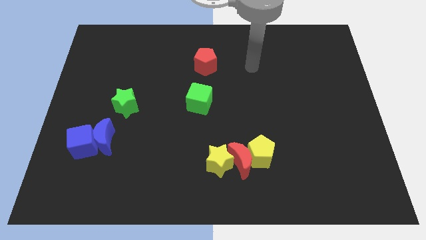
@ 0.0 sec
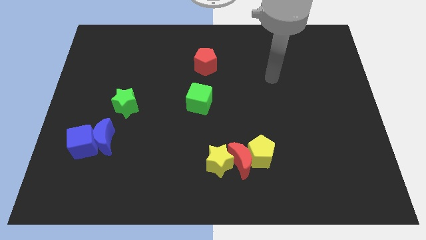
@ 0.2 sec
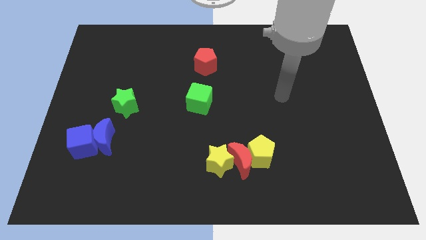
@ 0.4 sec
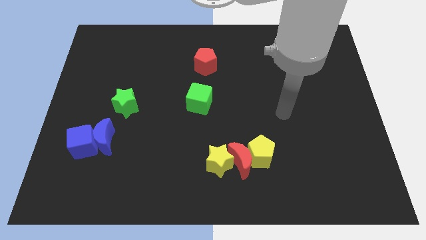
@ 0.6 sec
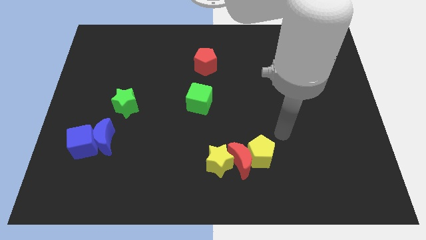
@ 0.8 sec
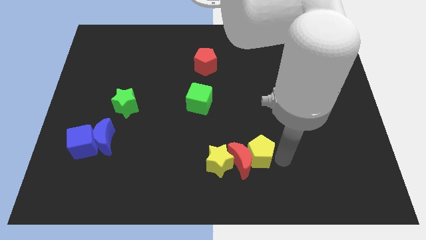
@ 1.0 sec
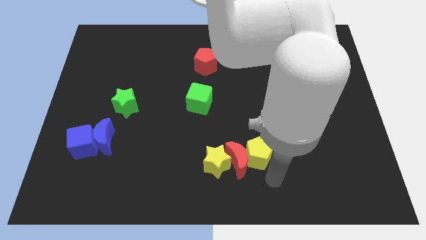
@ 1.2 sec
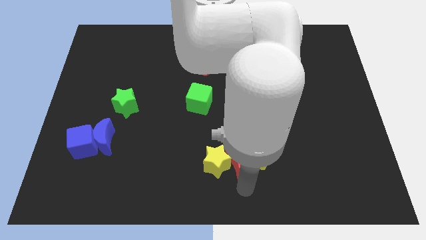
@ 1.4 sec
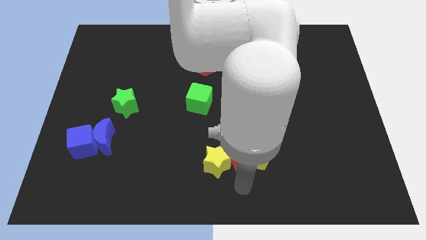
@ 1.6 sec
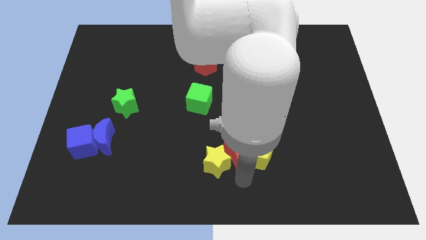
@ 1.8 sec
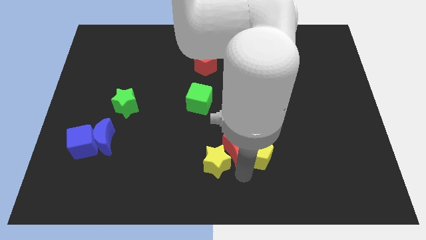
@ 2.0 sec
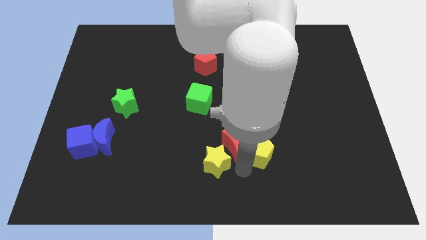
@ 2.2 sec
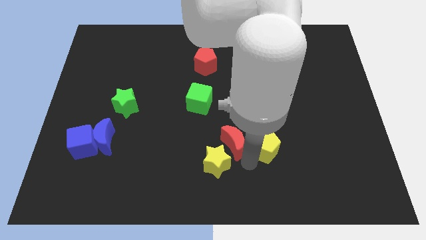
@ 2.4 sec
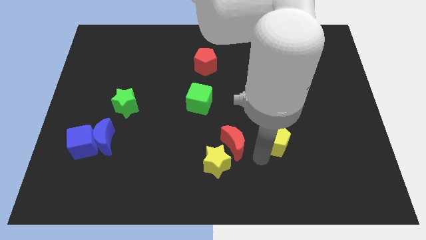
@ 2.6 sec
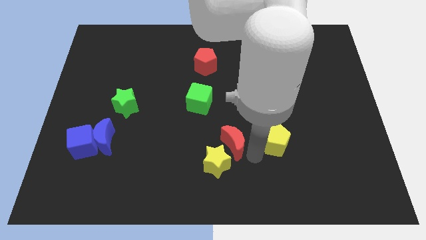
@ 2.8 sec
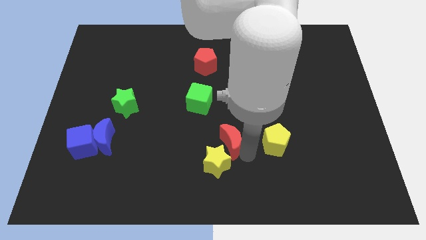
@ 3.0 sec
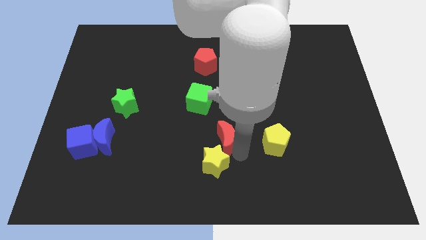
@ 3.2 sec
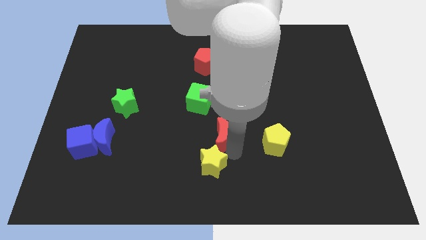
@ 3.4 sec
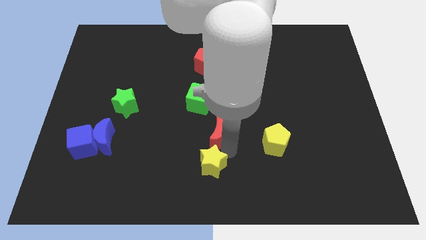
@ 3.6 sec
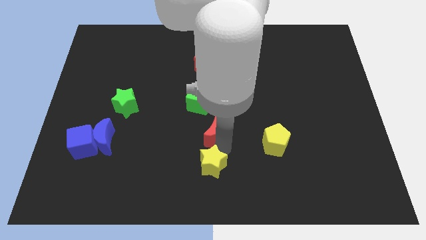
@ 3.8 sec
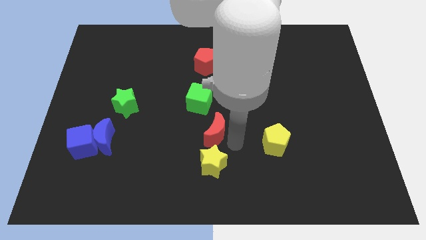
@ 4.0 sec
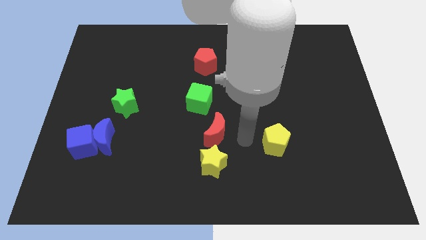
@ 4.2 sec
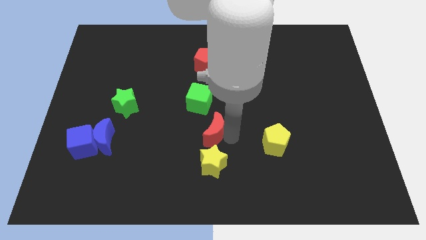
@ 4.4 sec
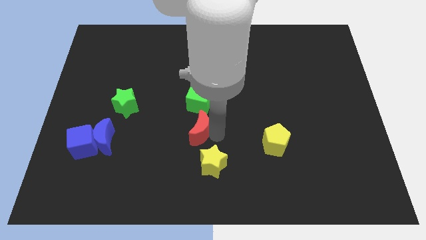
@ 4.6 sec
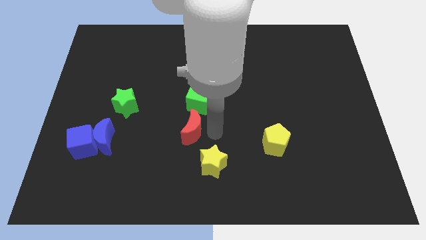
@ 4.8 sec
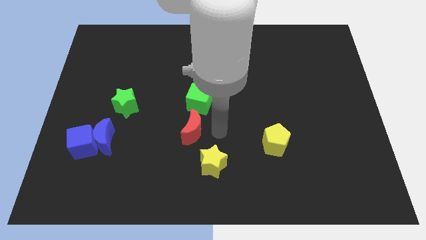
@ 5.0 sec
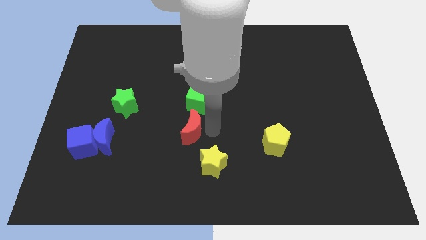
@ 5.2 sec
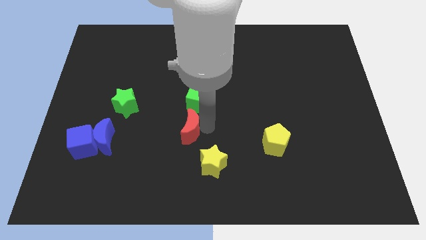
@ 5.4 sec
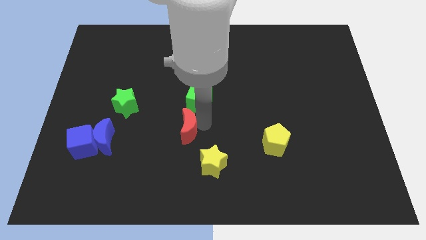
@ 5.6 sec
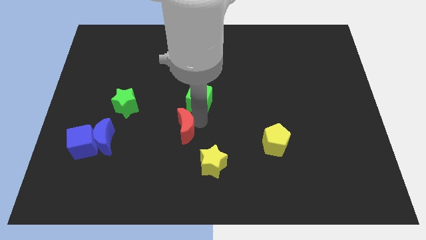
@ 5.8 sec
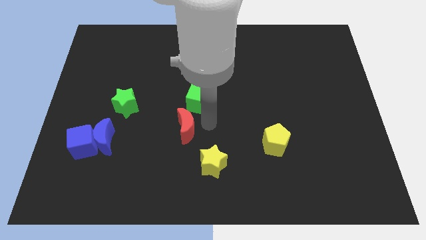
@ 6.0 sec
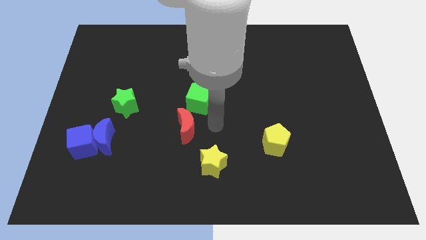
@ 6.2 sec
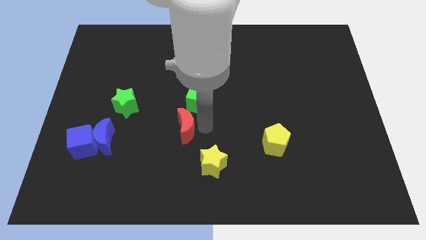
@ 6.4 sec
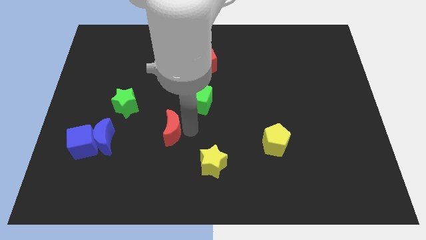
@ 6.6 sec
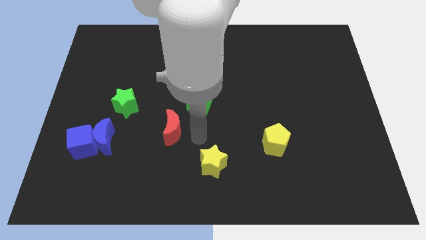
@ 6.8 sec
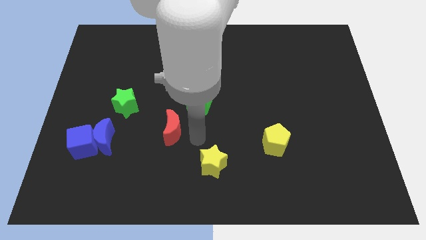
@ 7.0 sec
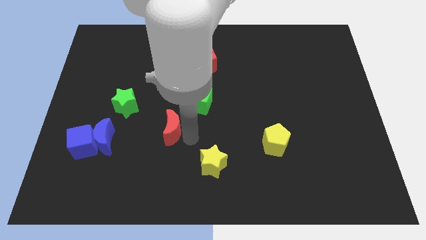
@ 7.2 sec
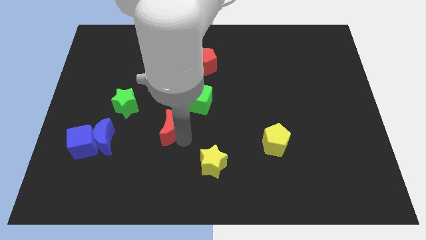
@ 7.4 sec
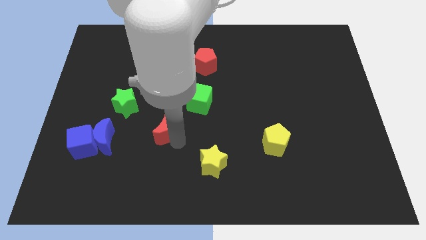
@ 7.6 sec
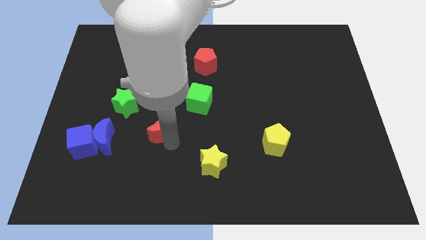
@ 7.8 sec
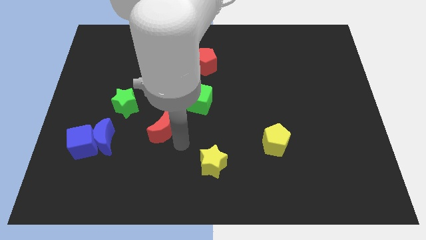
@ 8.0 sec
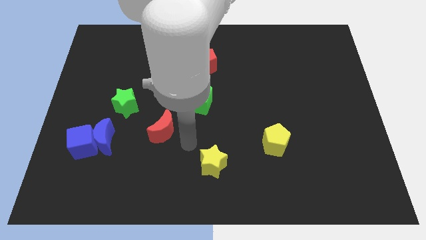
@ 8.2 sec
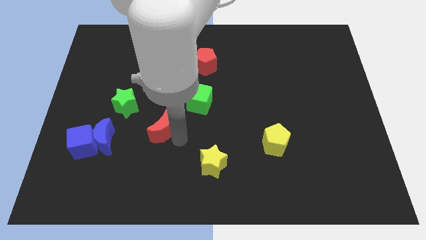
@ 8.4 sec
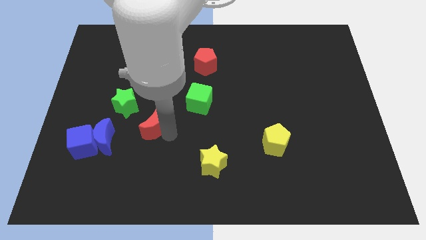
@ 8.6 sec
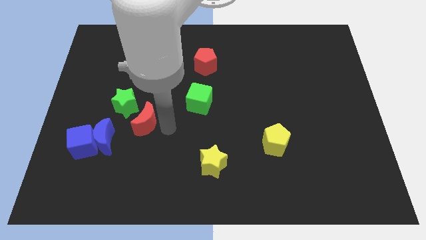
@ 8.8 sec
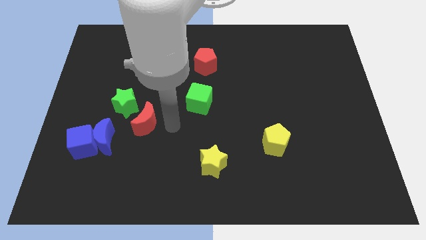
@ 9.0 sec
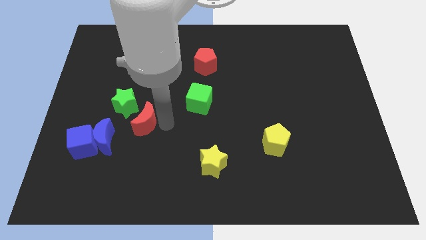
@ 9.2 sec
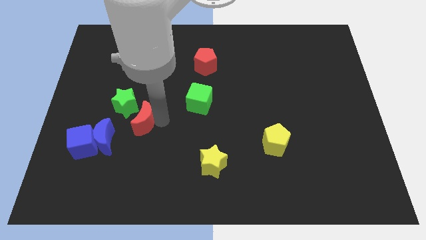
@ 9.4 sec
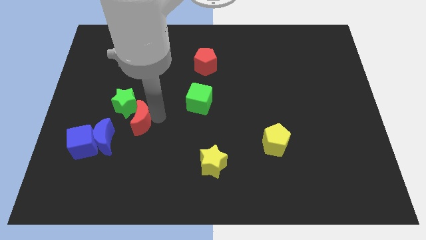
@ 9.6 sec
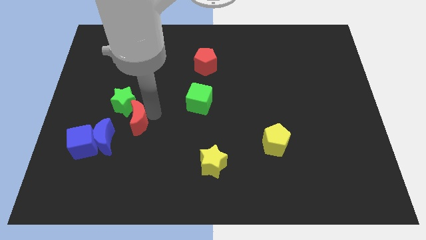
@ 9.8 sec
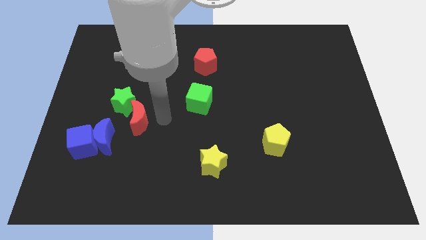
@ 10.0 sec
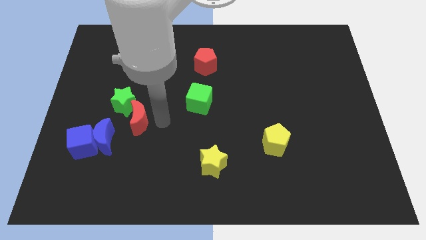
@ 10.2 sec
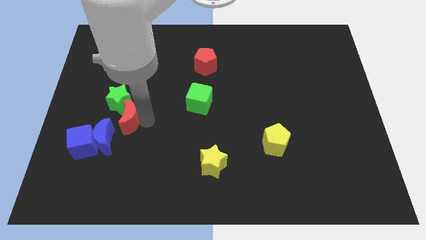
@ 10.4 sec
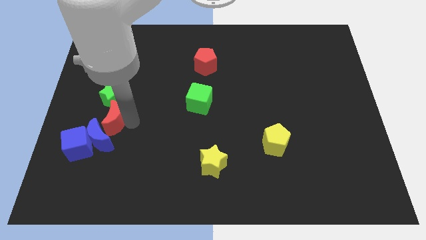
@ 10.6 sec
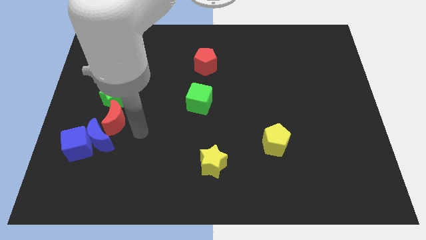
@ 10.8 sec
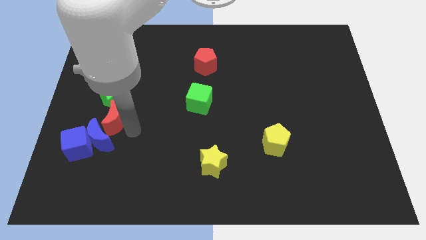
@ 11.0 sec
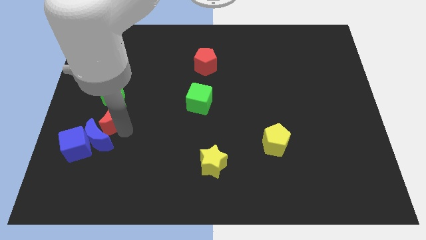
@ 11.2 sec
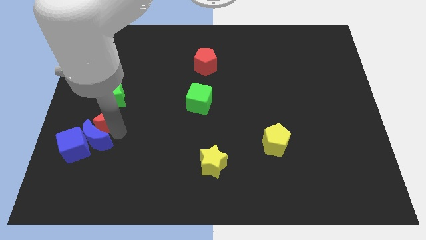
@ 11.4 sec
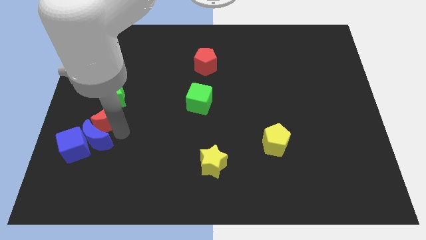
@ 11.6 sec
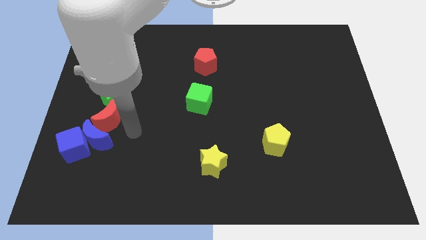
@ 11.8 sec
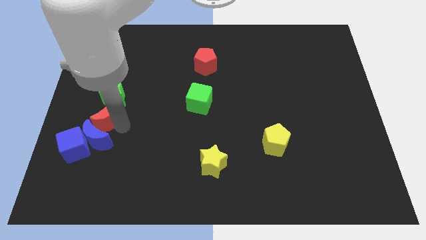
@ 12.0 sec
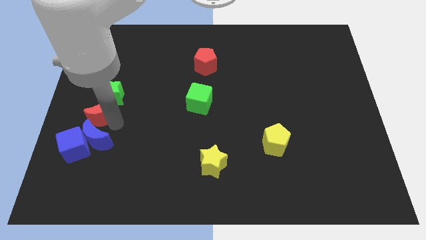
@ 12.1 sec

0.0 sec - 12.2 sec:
move the red moon above the blue cube
